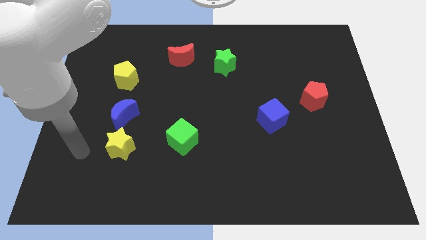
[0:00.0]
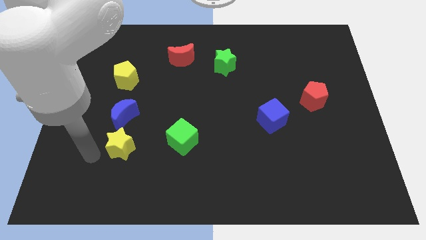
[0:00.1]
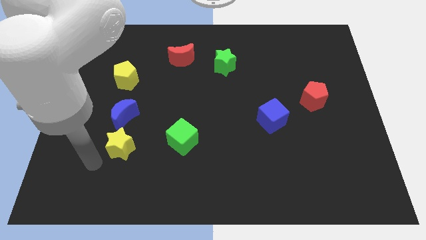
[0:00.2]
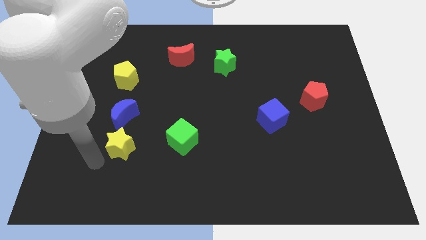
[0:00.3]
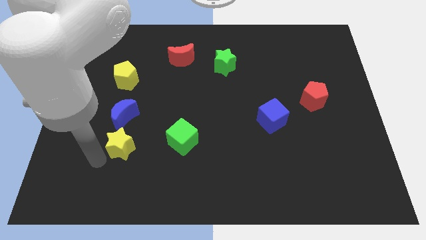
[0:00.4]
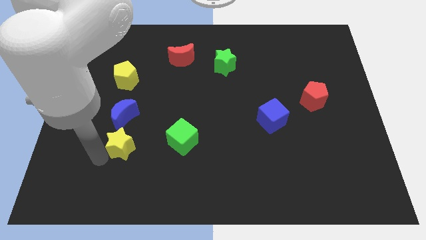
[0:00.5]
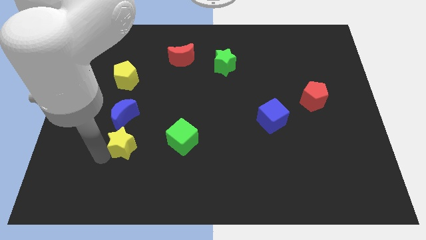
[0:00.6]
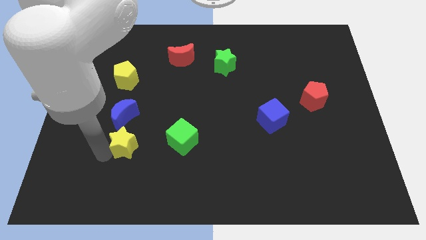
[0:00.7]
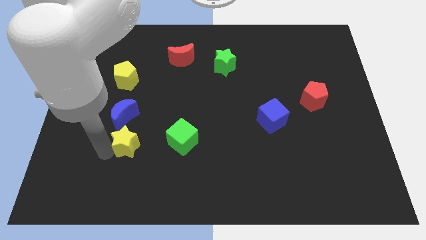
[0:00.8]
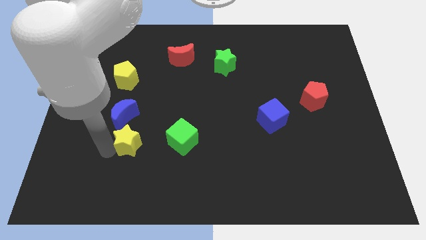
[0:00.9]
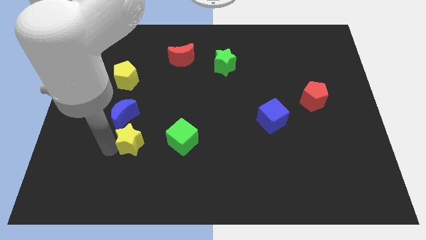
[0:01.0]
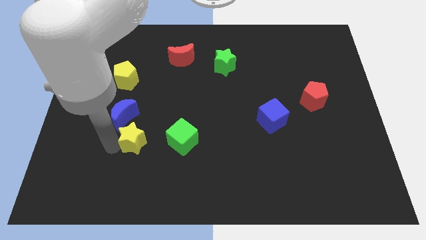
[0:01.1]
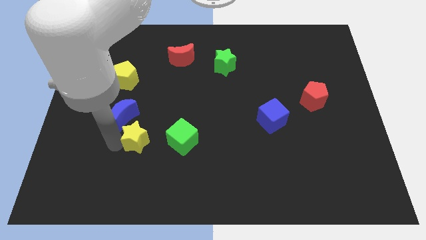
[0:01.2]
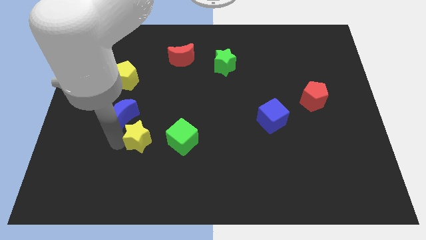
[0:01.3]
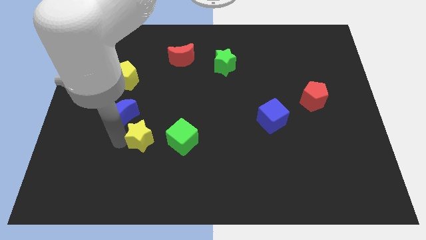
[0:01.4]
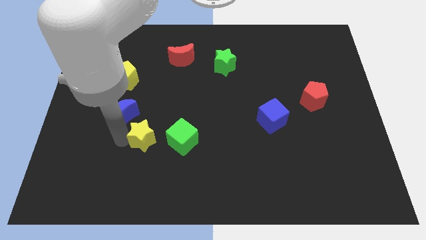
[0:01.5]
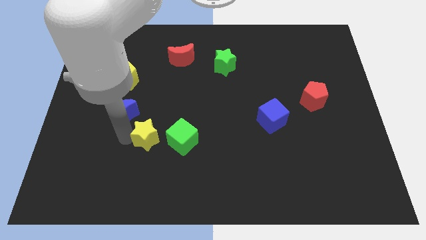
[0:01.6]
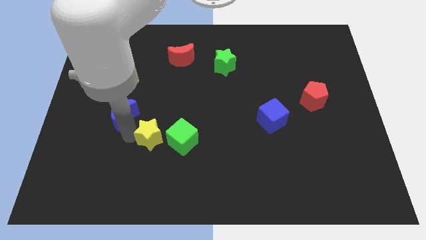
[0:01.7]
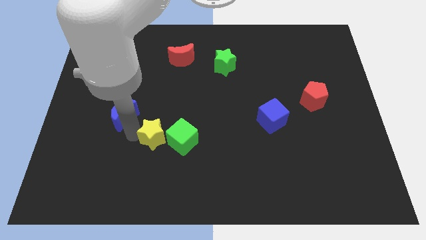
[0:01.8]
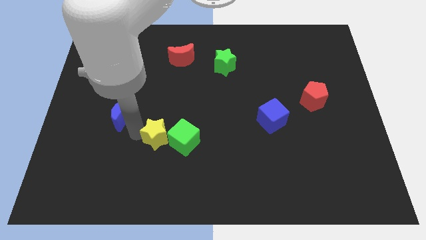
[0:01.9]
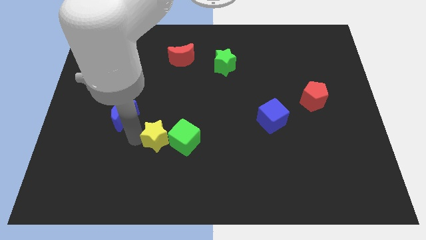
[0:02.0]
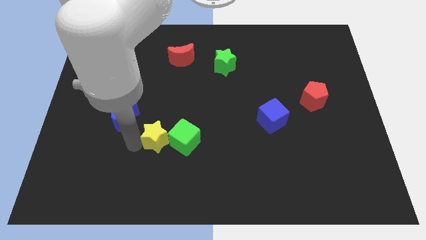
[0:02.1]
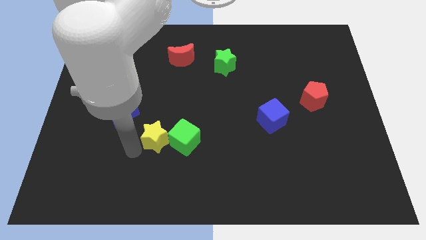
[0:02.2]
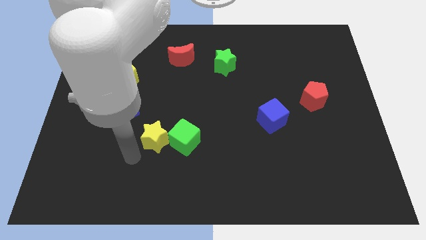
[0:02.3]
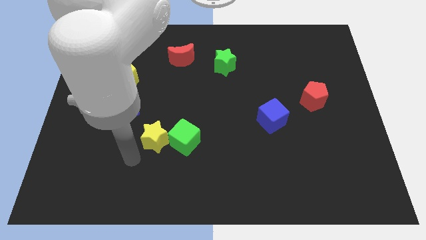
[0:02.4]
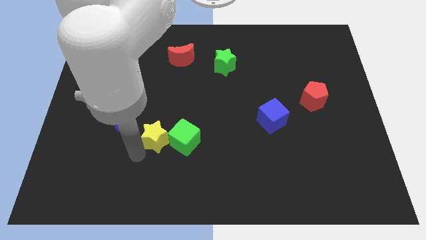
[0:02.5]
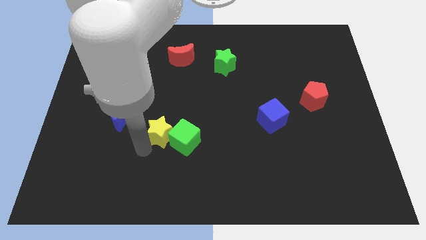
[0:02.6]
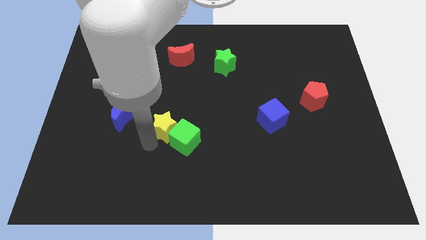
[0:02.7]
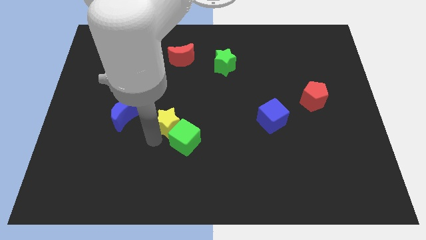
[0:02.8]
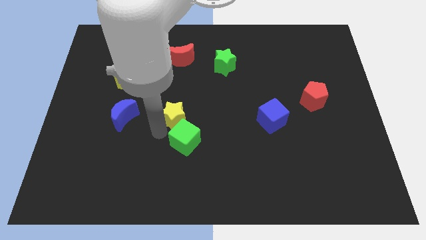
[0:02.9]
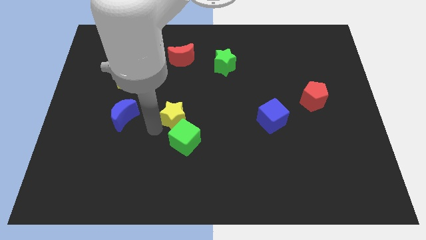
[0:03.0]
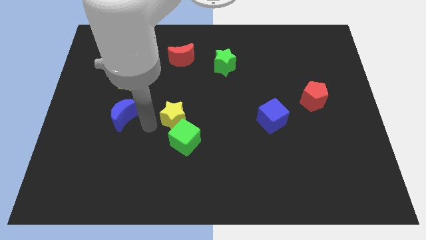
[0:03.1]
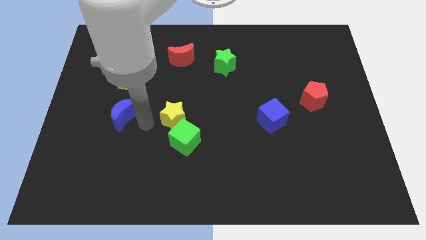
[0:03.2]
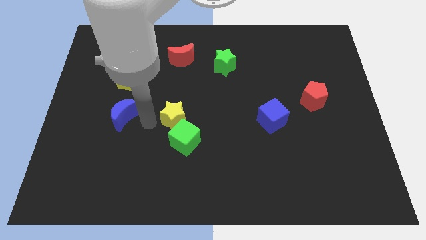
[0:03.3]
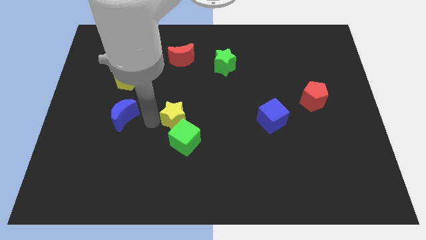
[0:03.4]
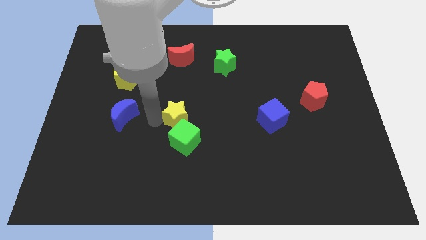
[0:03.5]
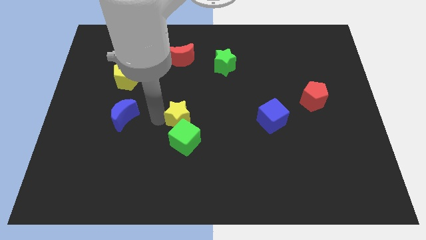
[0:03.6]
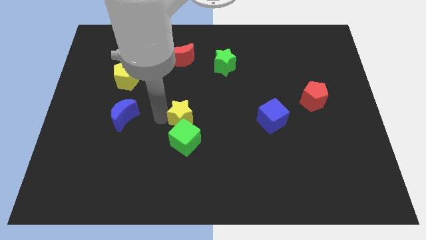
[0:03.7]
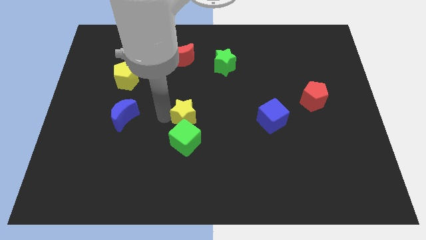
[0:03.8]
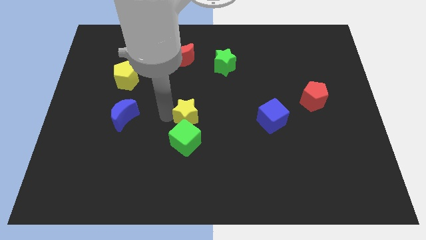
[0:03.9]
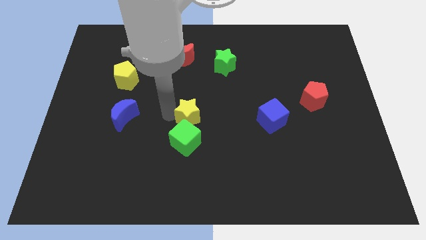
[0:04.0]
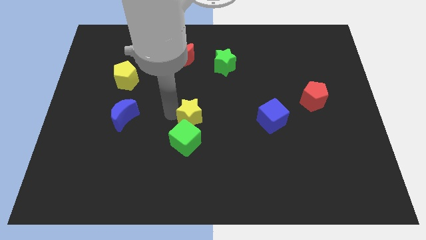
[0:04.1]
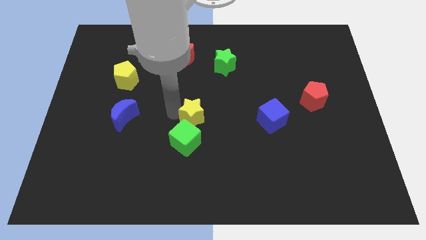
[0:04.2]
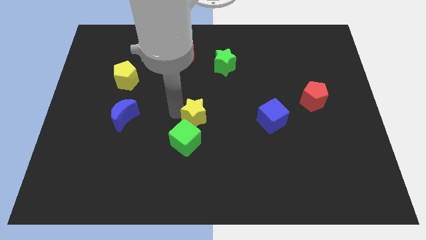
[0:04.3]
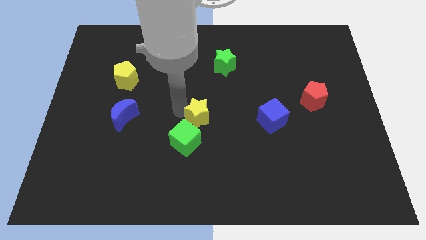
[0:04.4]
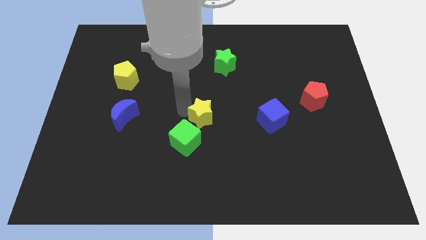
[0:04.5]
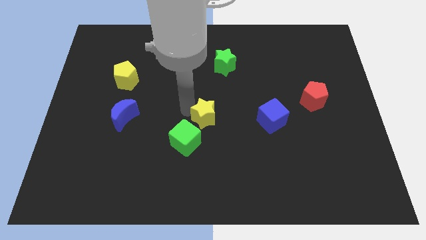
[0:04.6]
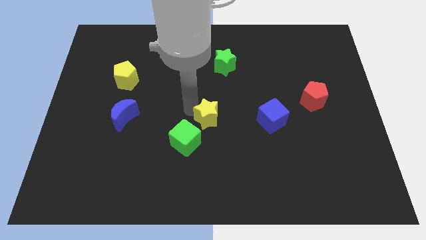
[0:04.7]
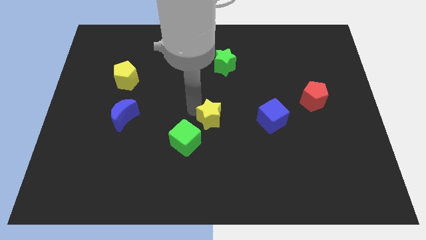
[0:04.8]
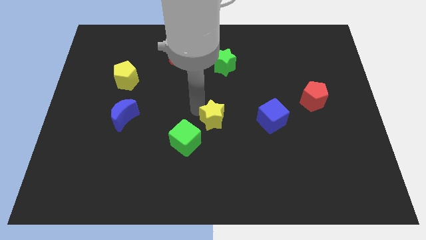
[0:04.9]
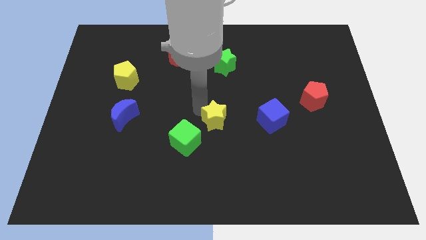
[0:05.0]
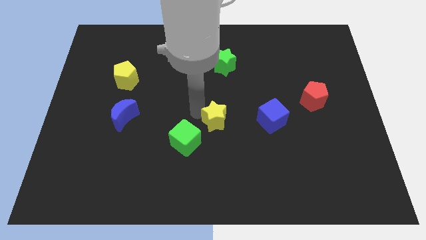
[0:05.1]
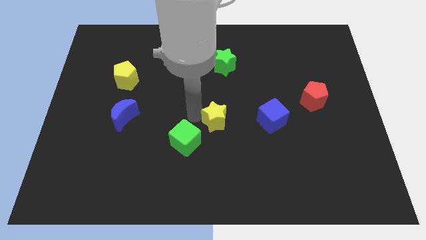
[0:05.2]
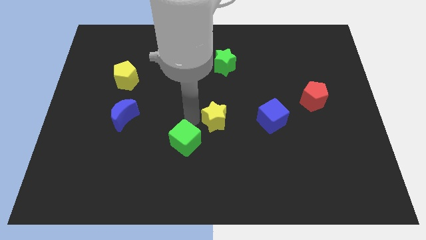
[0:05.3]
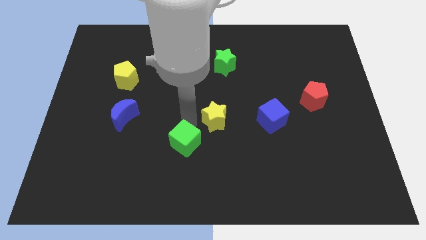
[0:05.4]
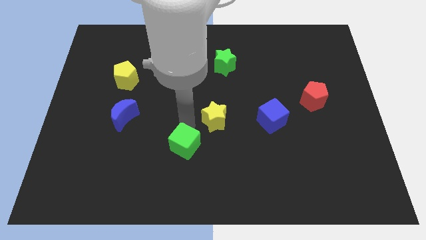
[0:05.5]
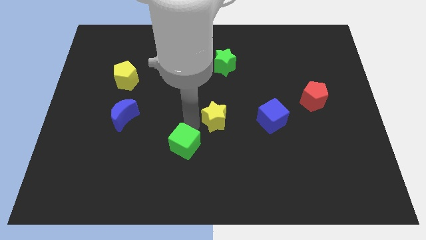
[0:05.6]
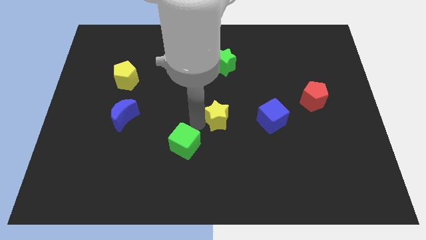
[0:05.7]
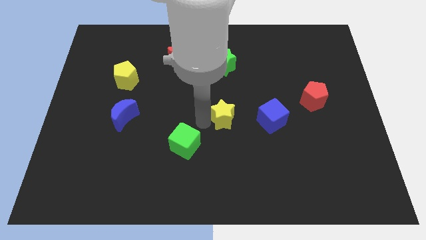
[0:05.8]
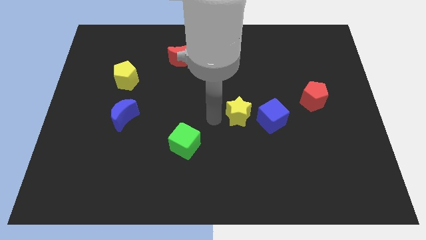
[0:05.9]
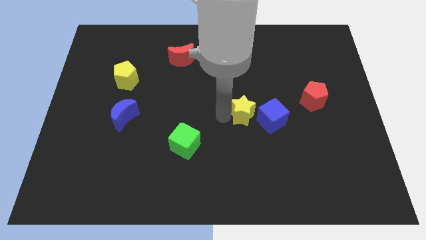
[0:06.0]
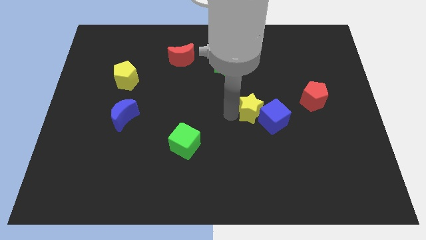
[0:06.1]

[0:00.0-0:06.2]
move the yellow star next to the blue cube
